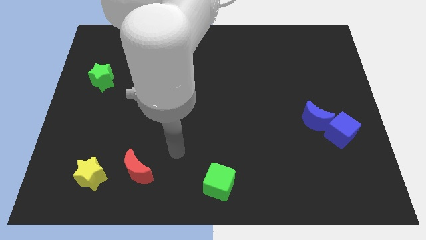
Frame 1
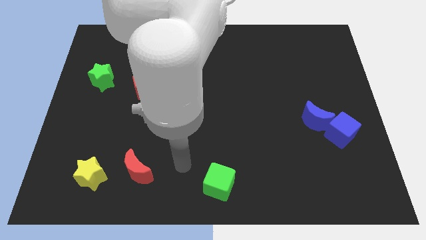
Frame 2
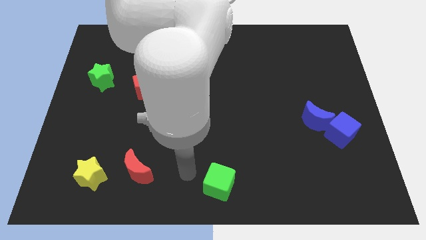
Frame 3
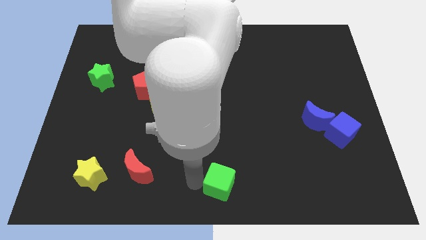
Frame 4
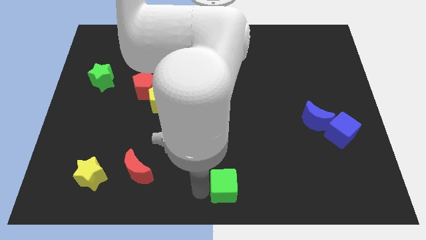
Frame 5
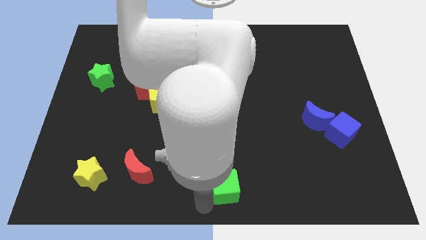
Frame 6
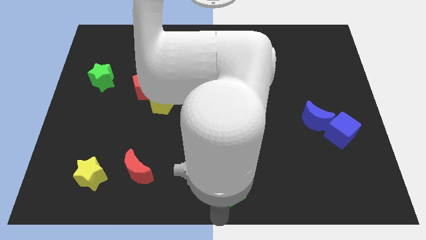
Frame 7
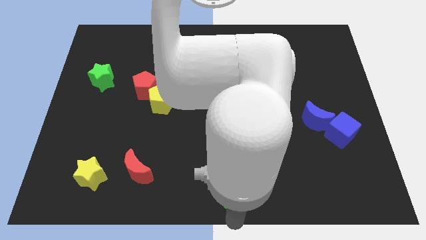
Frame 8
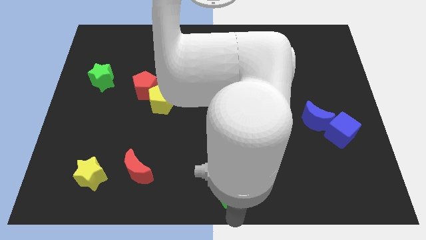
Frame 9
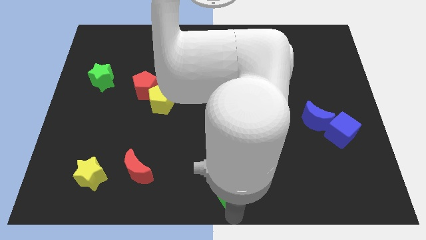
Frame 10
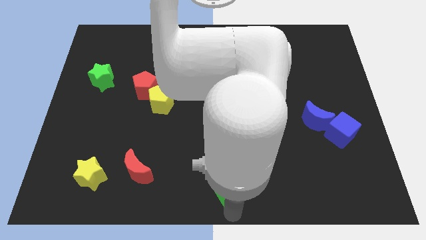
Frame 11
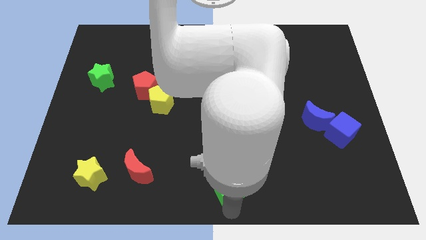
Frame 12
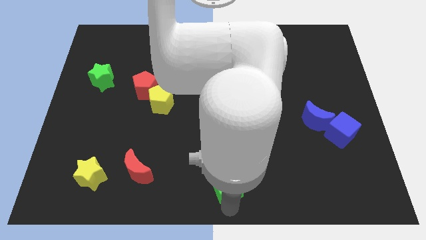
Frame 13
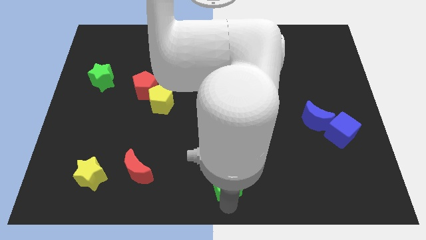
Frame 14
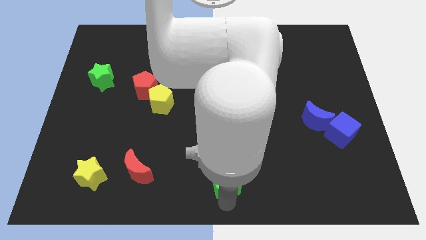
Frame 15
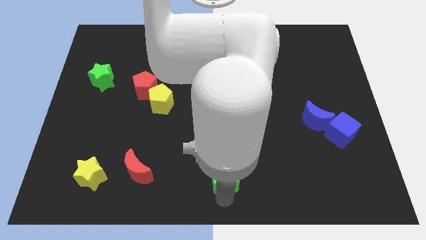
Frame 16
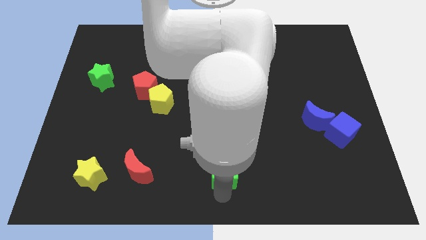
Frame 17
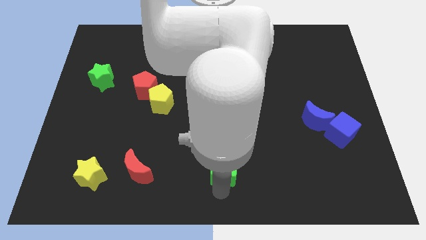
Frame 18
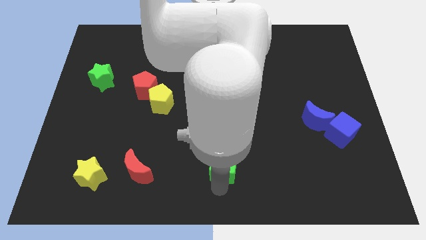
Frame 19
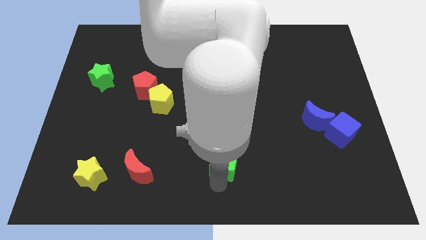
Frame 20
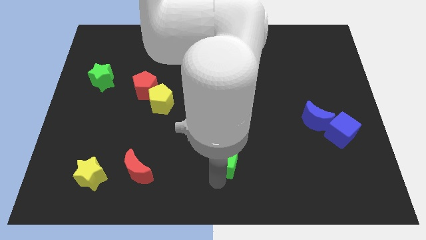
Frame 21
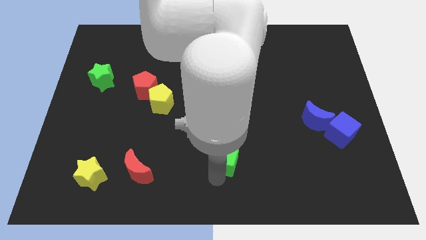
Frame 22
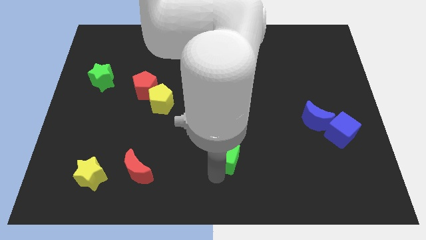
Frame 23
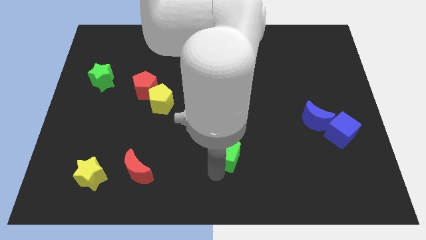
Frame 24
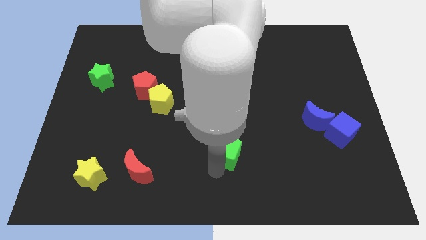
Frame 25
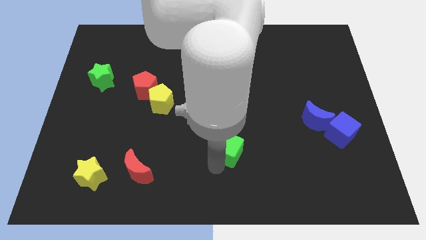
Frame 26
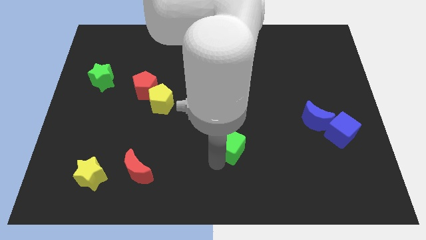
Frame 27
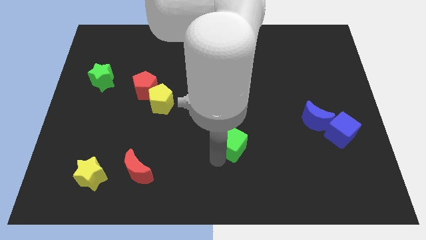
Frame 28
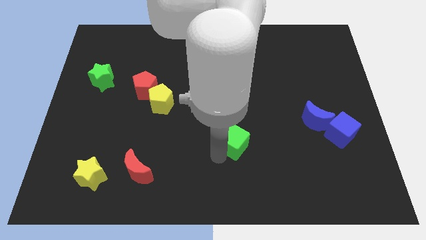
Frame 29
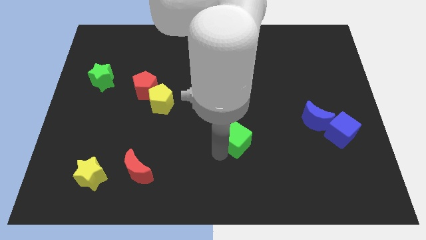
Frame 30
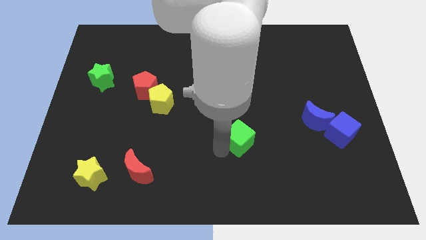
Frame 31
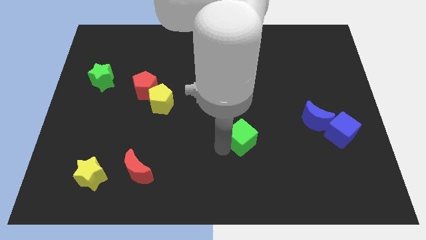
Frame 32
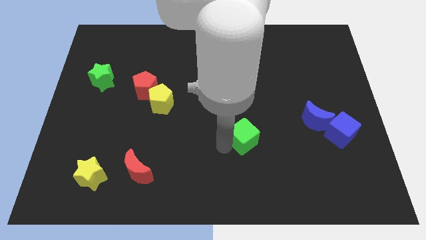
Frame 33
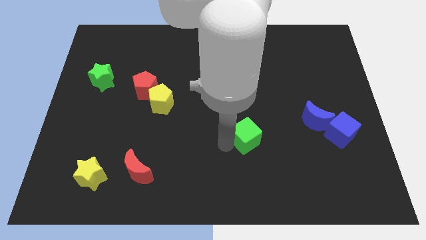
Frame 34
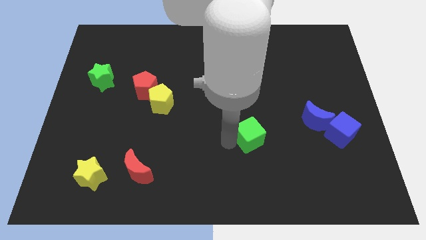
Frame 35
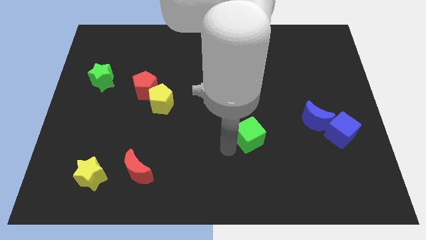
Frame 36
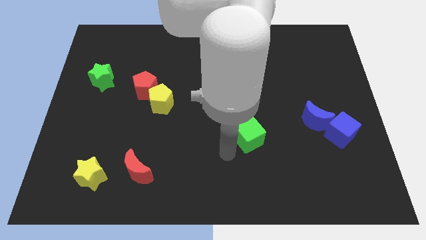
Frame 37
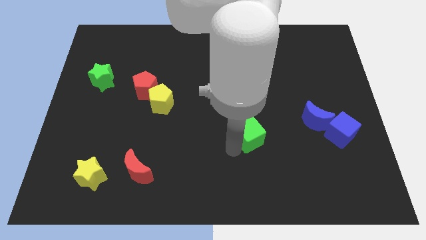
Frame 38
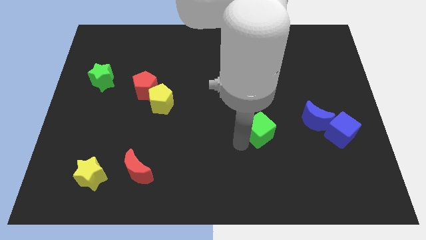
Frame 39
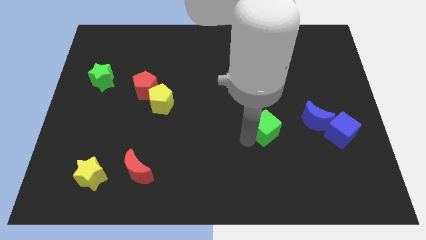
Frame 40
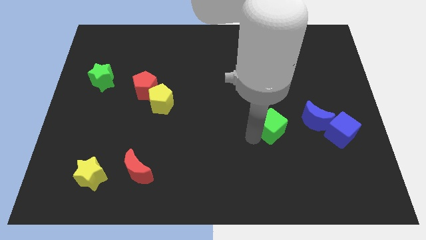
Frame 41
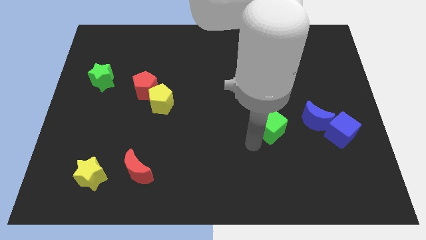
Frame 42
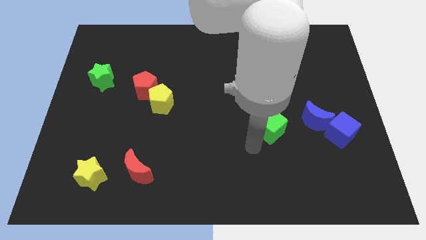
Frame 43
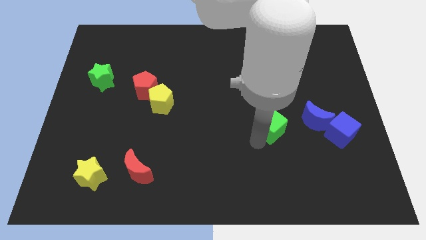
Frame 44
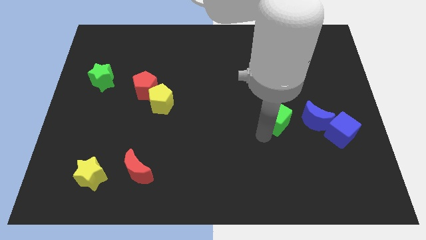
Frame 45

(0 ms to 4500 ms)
move the green cube up and then right

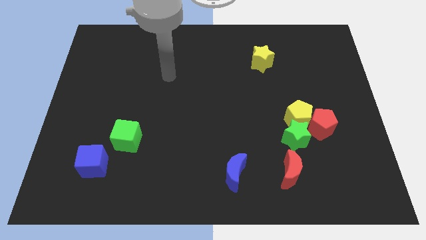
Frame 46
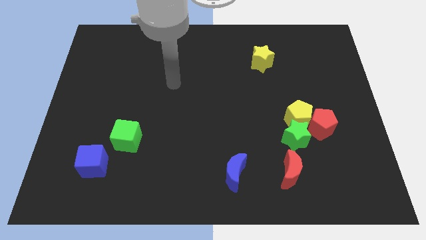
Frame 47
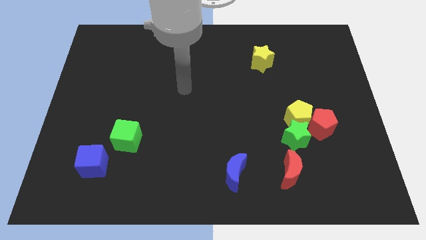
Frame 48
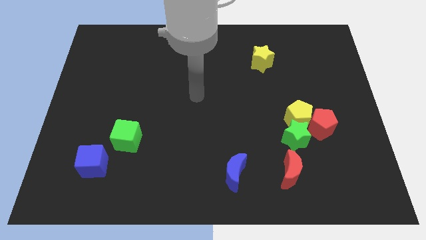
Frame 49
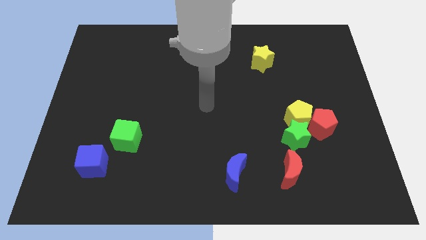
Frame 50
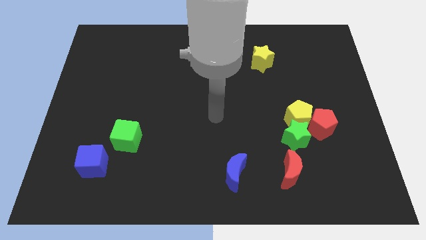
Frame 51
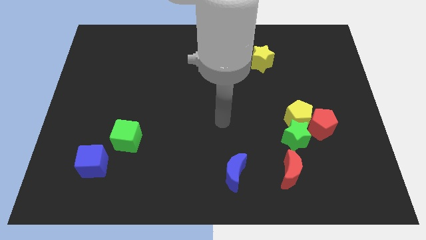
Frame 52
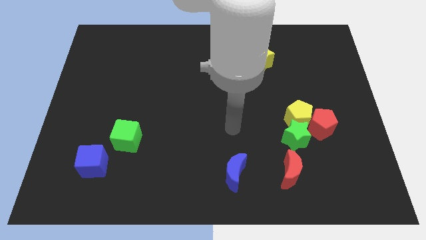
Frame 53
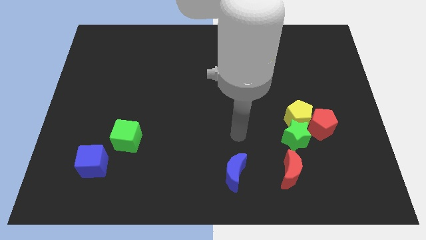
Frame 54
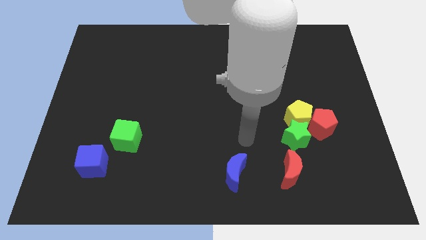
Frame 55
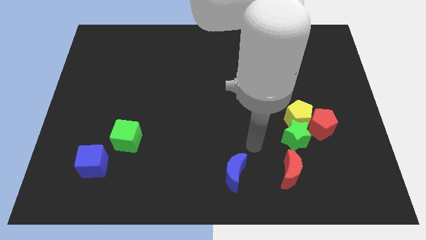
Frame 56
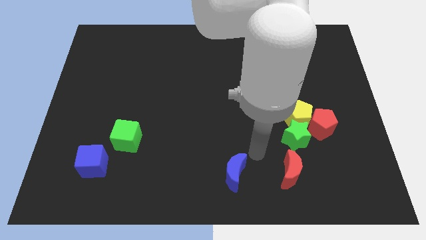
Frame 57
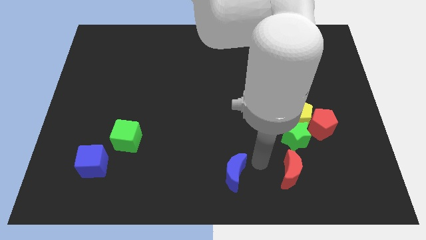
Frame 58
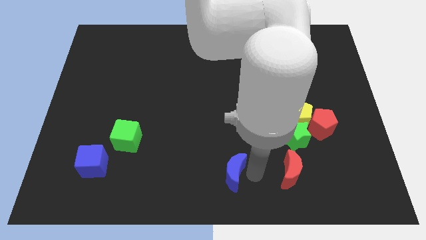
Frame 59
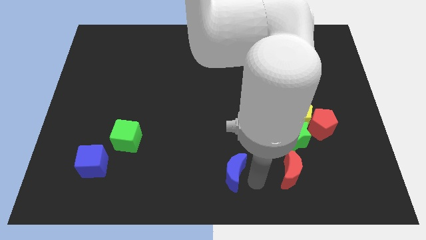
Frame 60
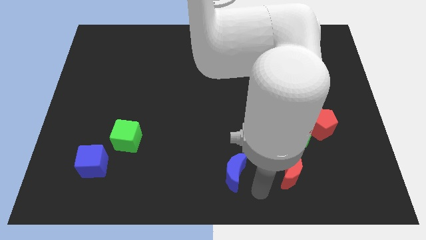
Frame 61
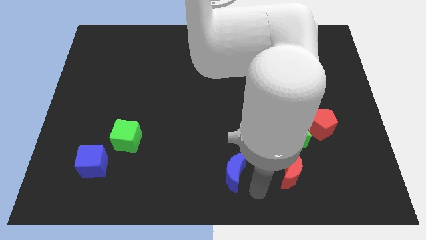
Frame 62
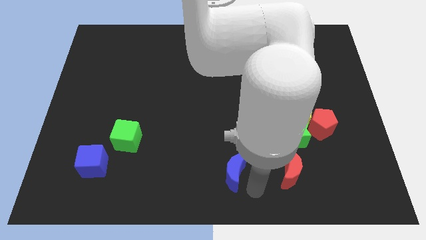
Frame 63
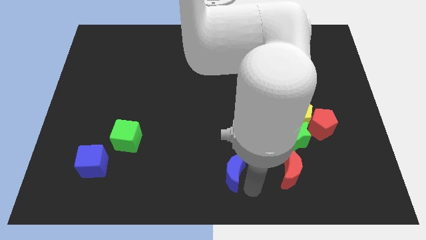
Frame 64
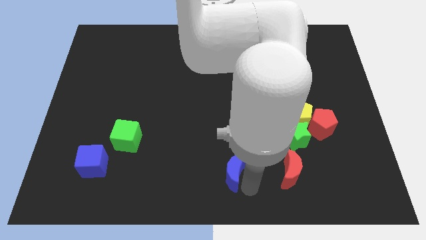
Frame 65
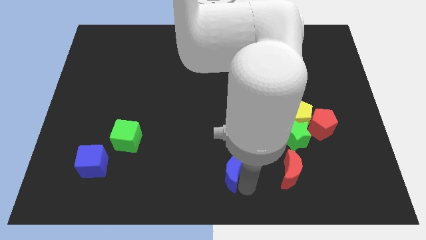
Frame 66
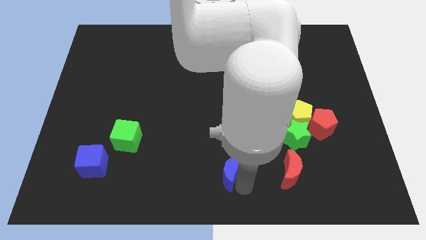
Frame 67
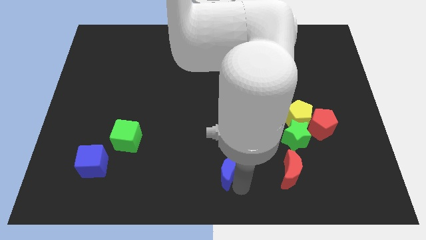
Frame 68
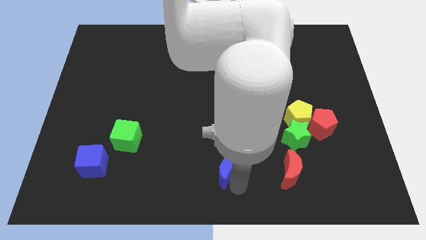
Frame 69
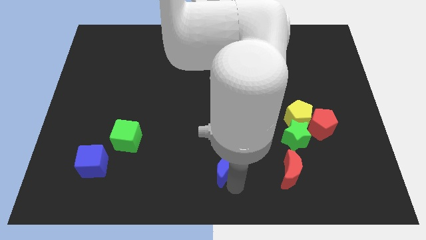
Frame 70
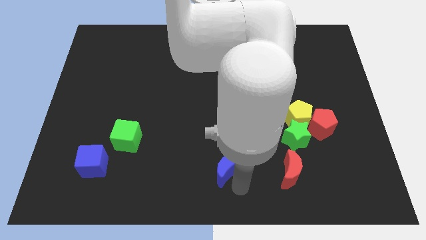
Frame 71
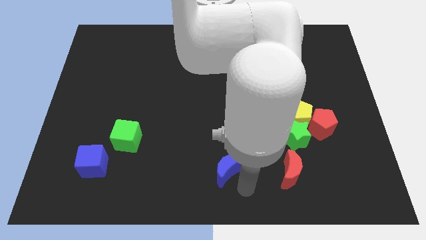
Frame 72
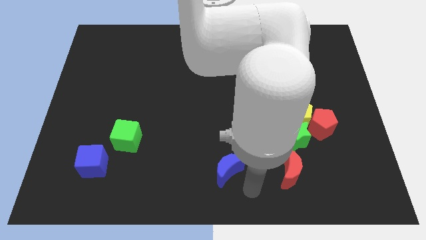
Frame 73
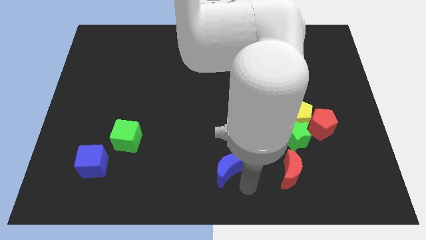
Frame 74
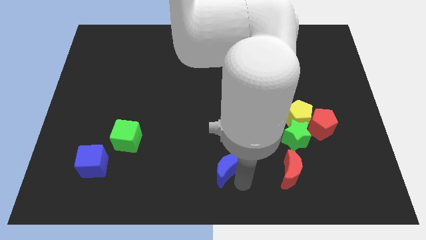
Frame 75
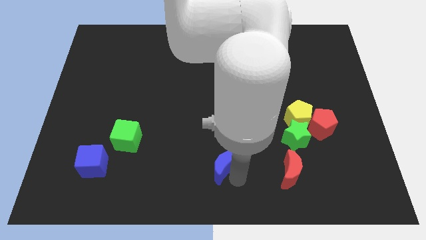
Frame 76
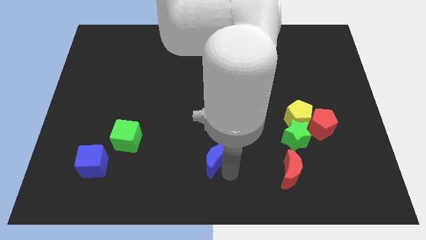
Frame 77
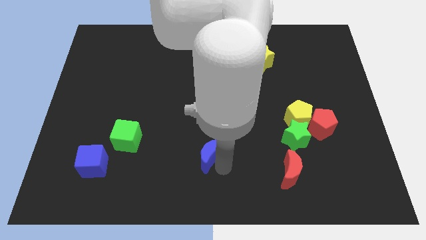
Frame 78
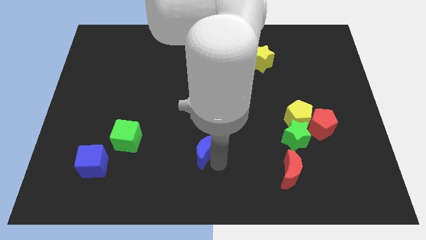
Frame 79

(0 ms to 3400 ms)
slide the blue moon up and to the left diagonally a little

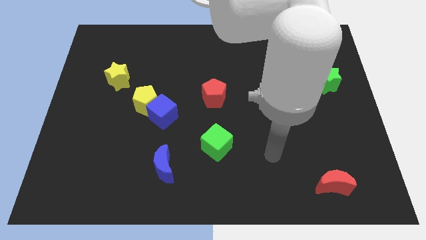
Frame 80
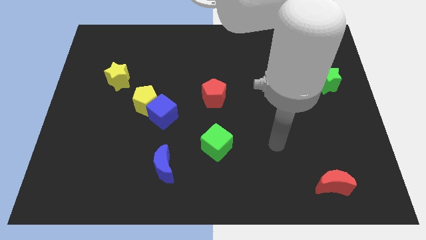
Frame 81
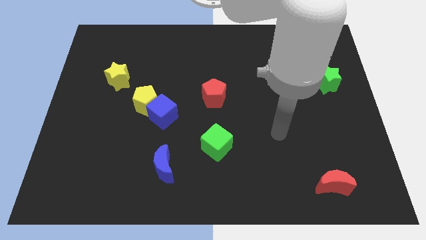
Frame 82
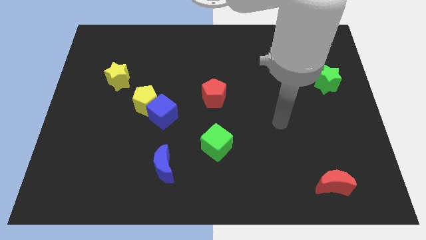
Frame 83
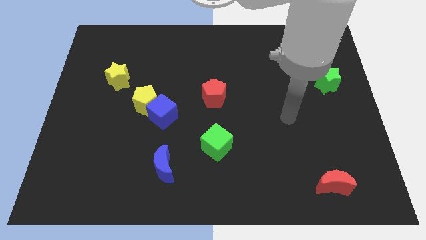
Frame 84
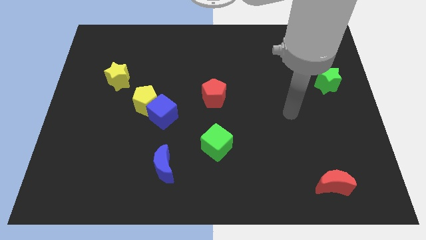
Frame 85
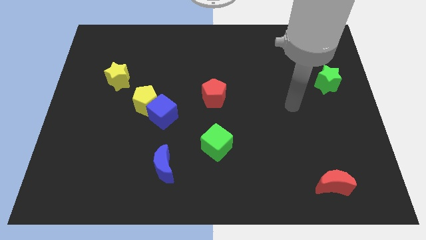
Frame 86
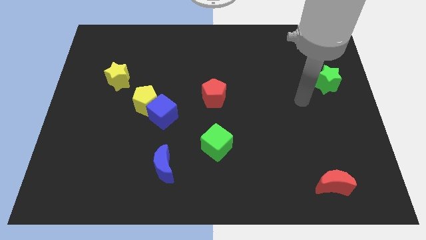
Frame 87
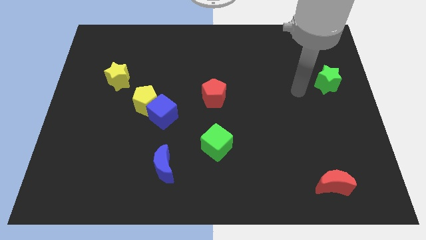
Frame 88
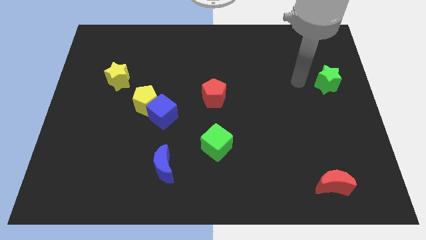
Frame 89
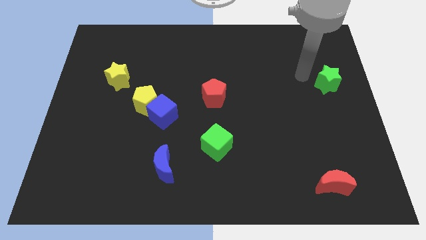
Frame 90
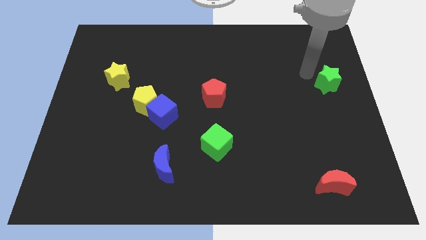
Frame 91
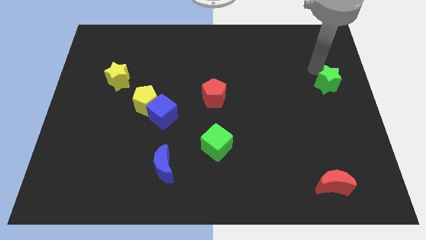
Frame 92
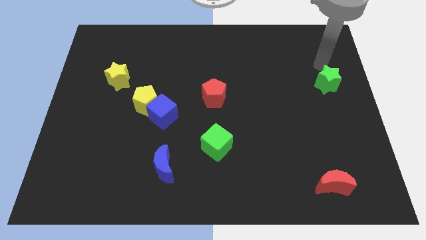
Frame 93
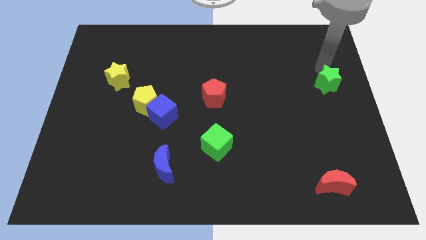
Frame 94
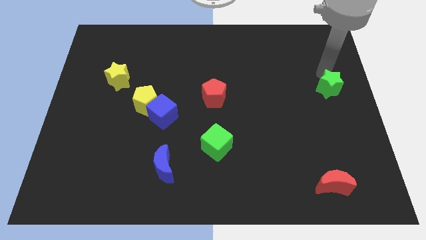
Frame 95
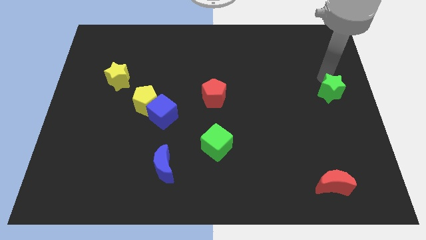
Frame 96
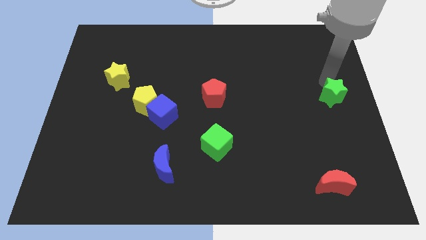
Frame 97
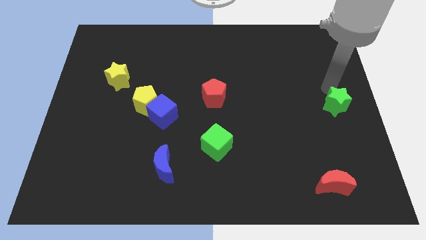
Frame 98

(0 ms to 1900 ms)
slide the green star downwards somewhat
